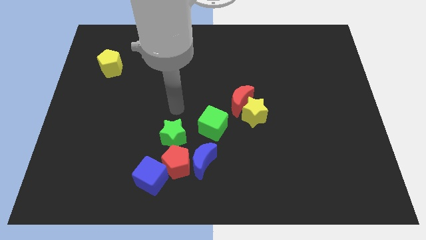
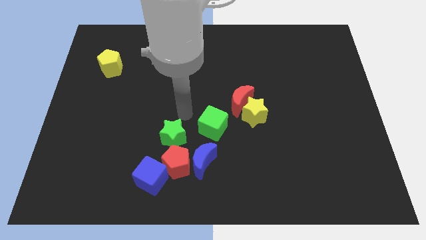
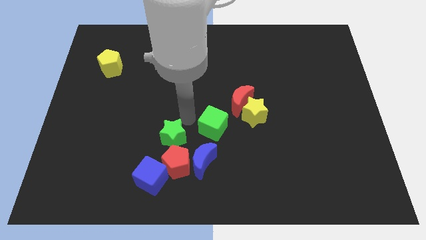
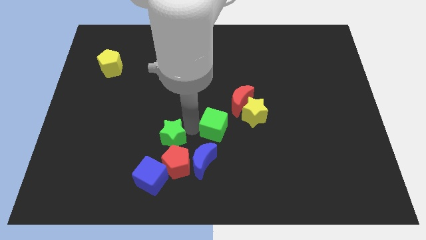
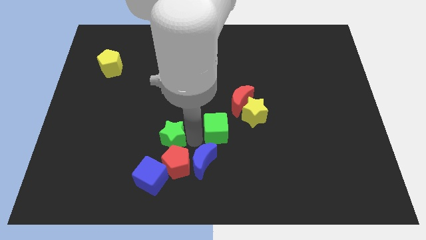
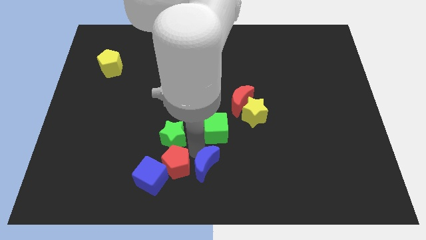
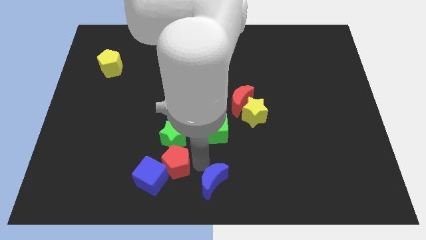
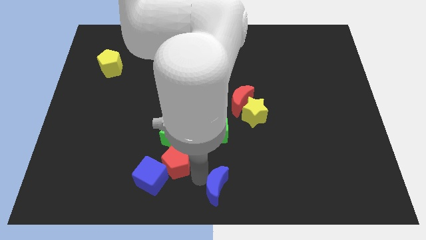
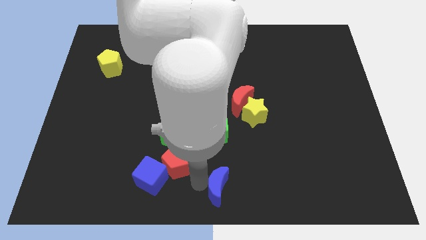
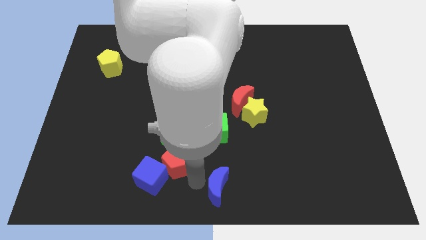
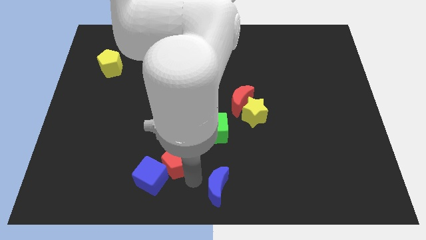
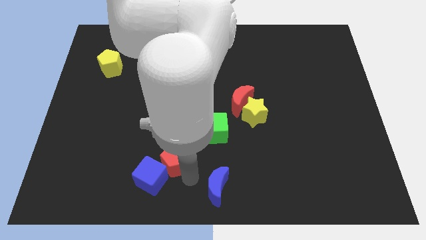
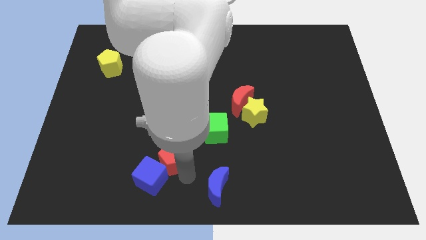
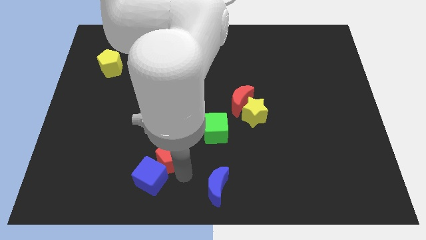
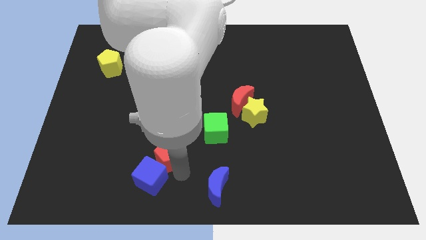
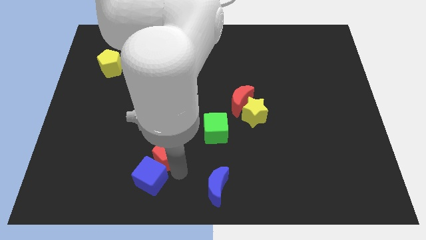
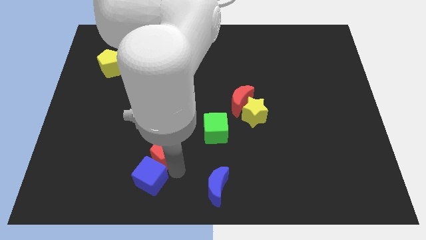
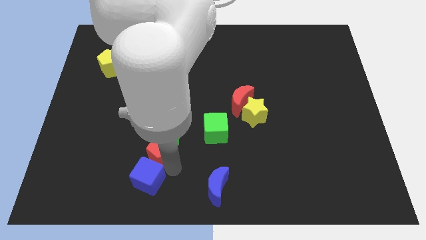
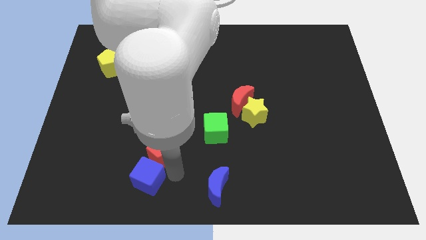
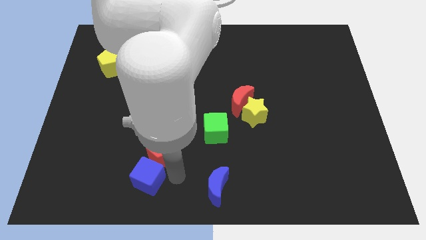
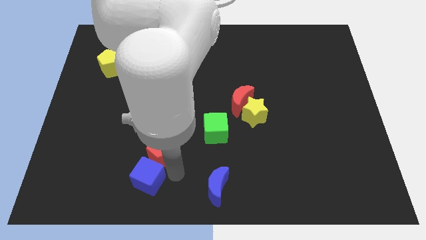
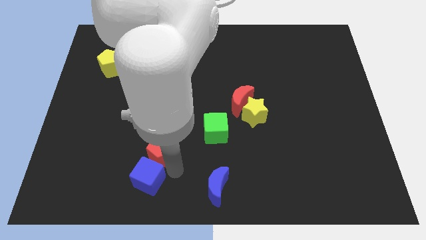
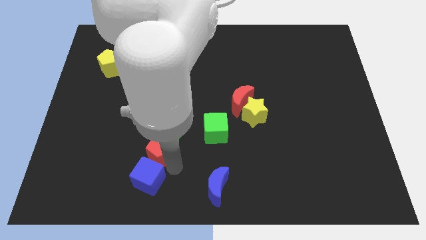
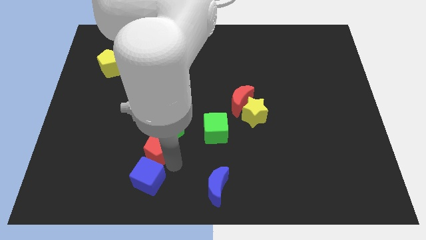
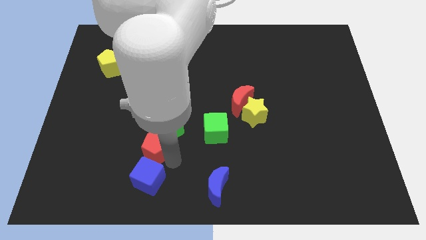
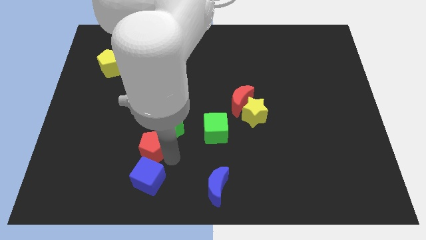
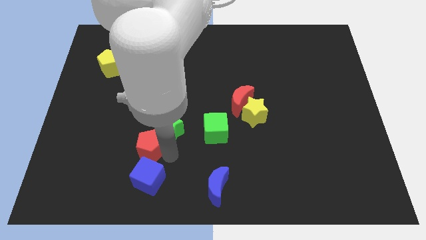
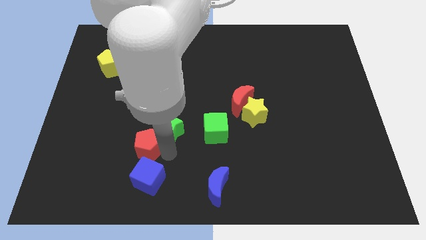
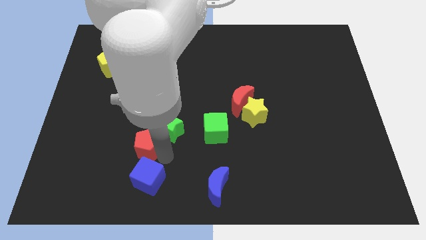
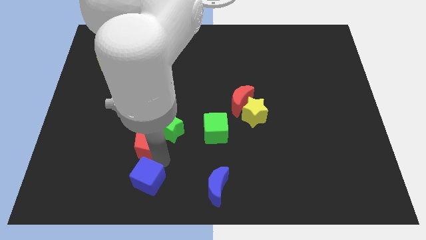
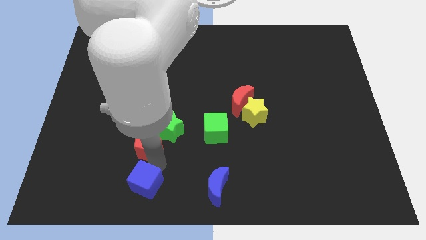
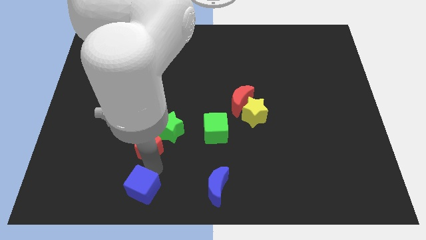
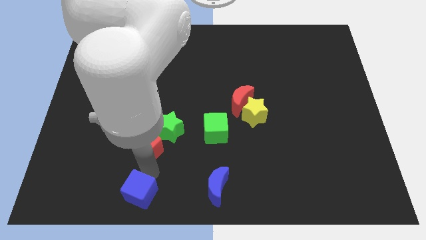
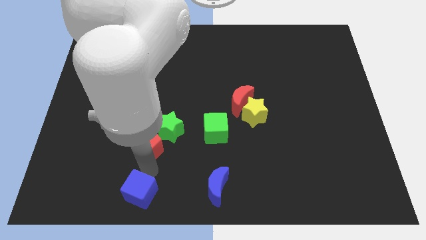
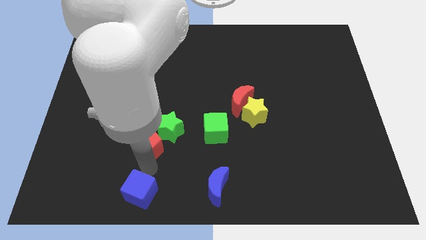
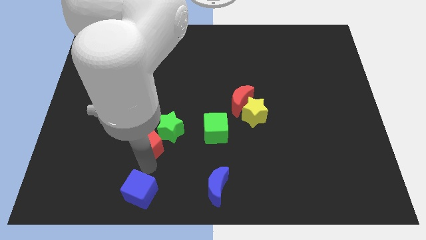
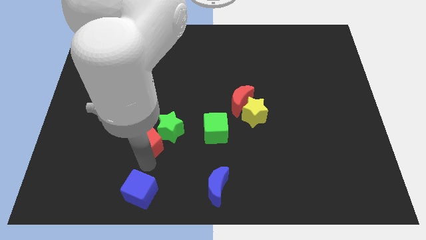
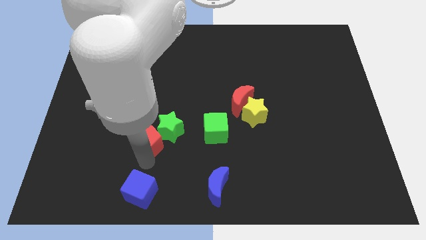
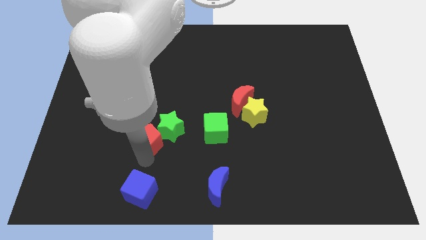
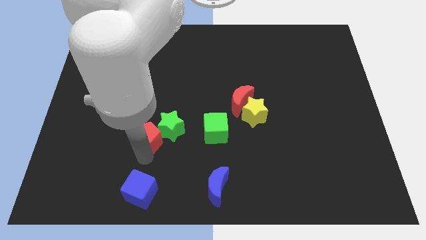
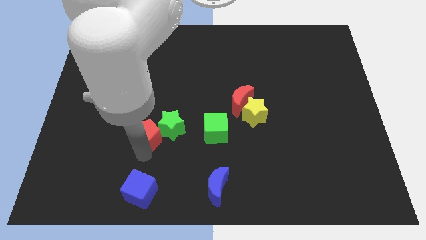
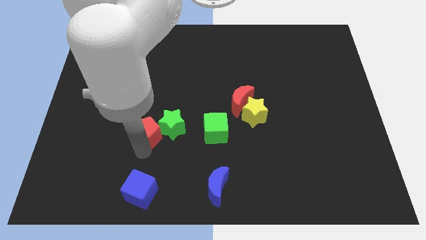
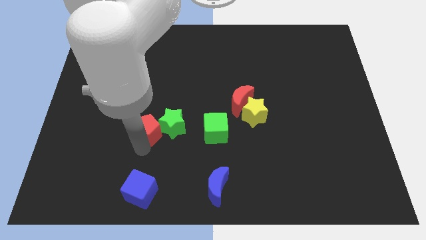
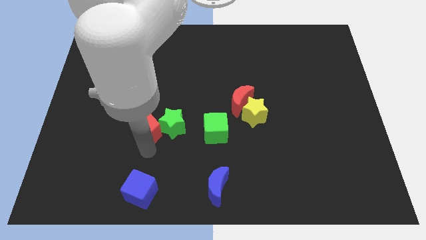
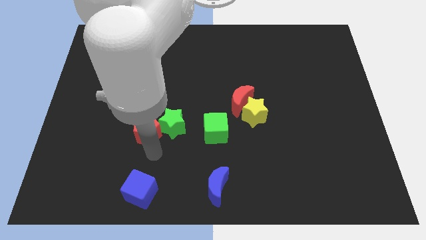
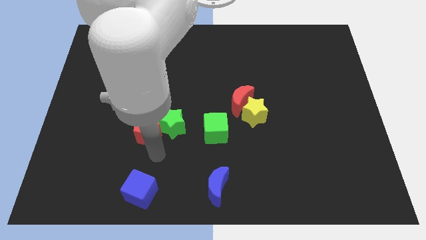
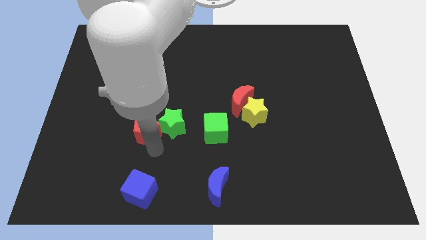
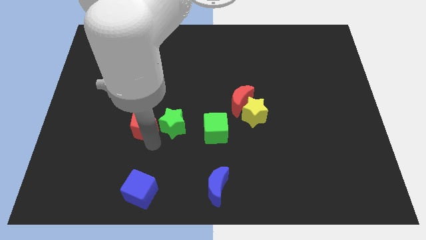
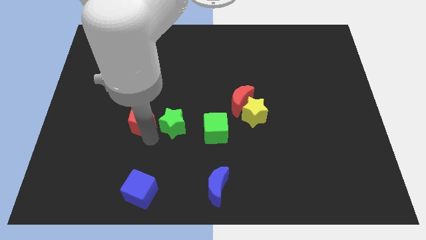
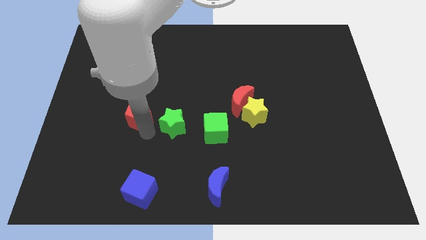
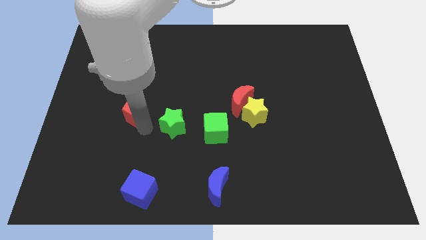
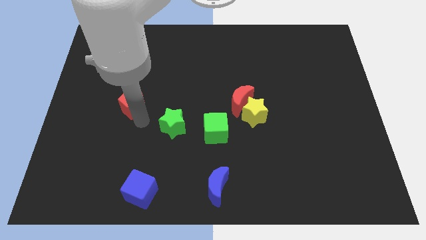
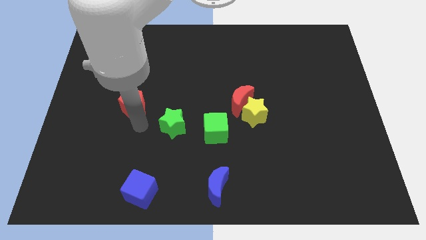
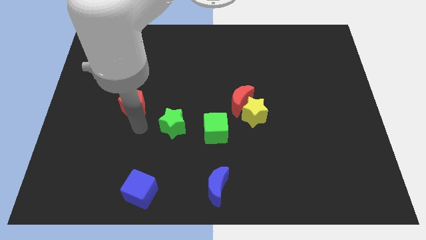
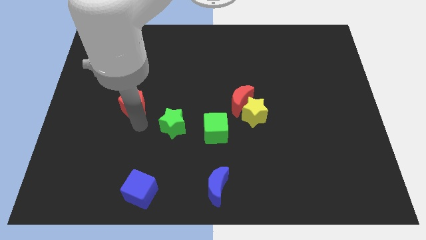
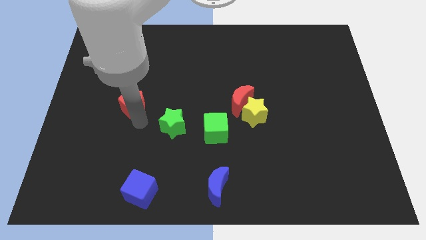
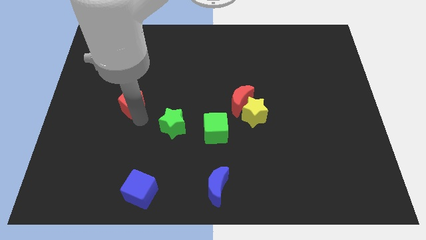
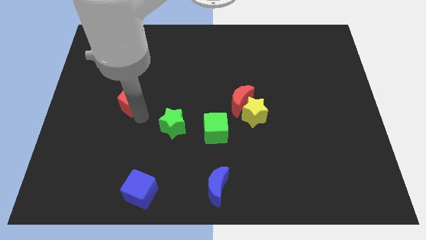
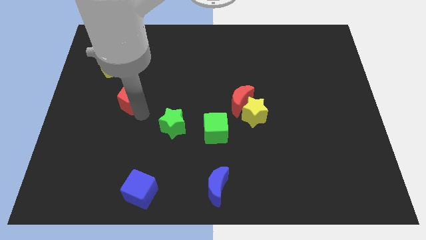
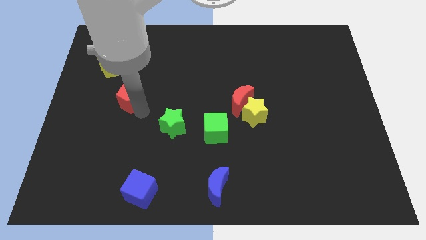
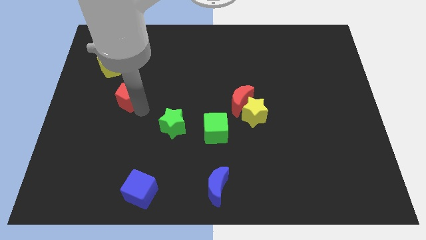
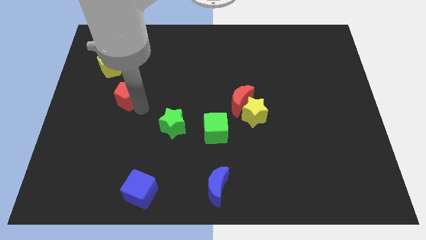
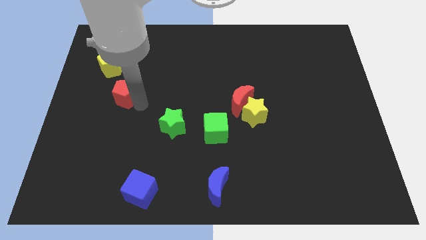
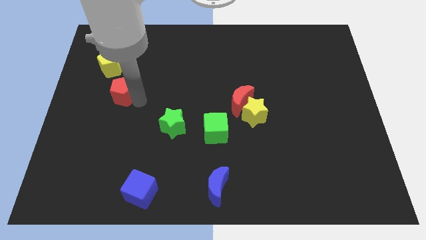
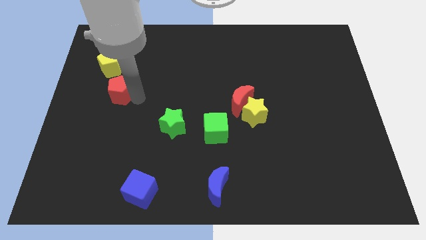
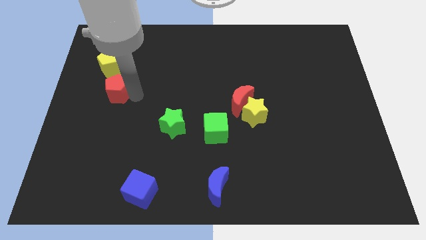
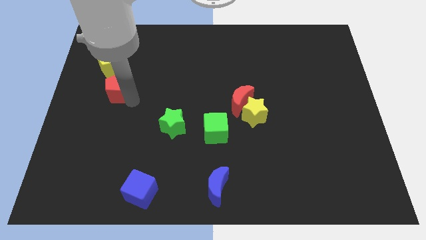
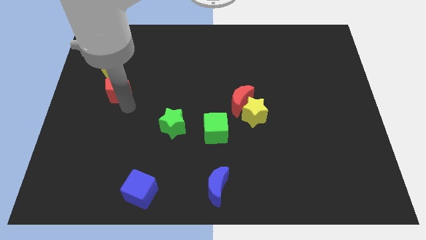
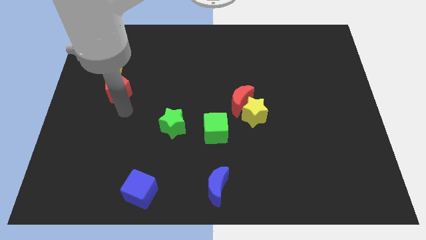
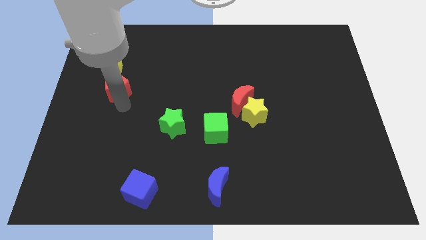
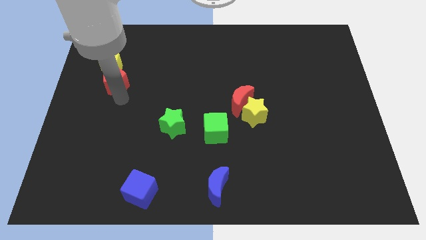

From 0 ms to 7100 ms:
push the red pentagon towards the yellow pentagon
